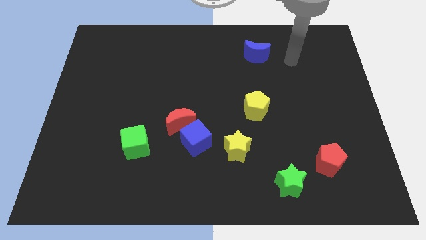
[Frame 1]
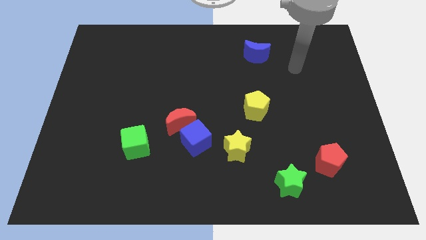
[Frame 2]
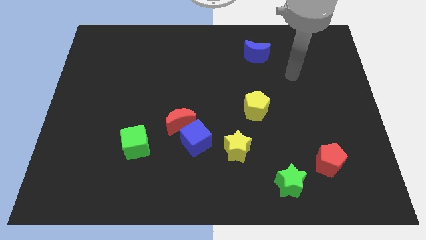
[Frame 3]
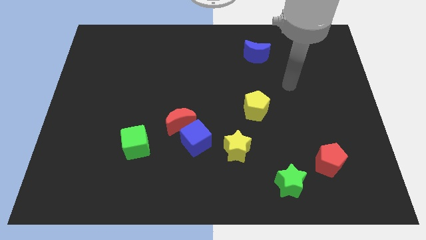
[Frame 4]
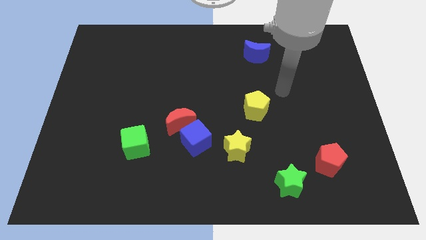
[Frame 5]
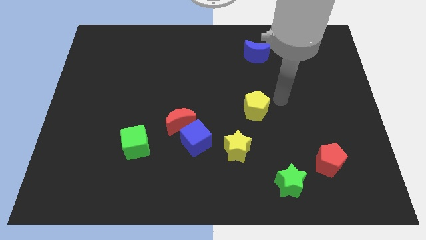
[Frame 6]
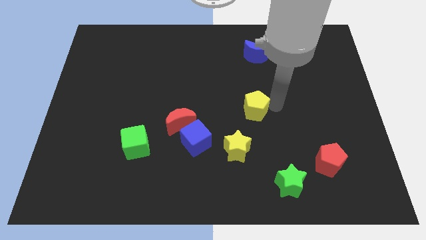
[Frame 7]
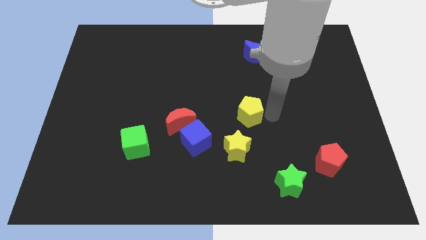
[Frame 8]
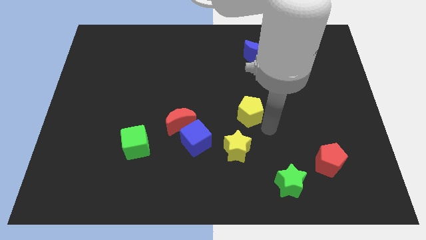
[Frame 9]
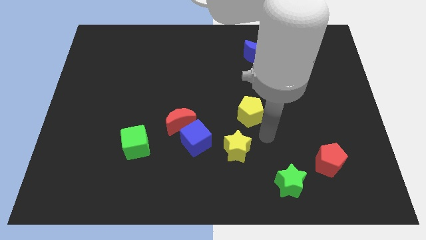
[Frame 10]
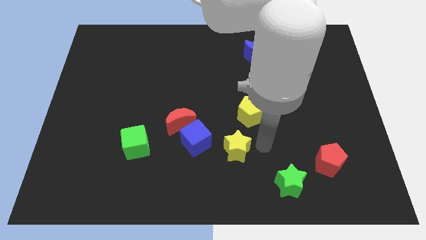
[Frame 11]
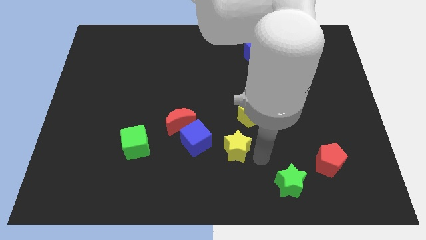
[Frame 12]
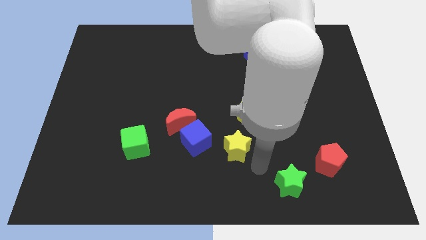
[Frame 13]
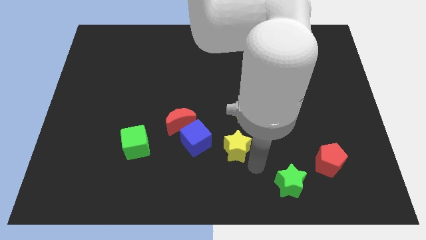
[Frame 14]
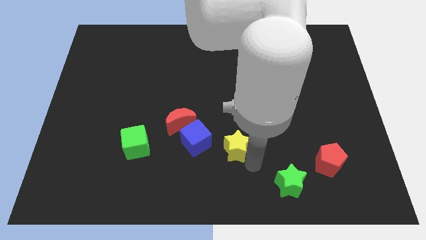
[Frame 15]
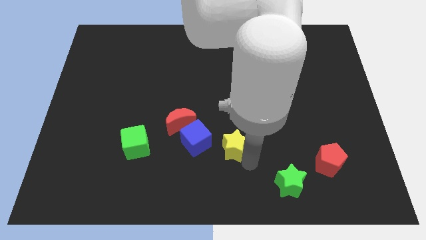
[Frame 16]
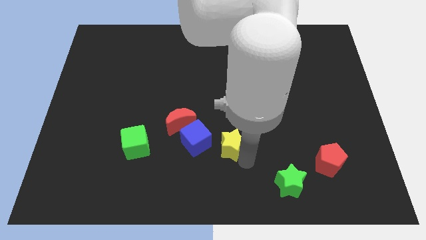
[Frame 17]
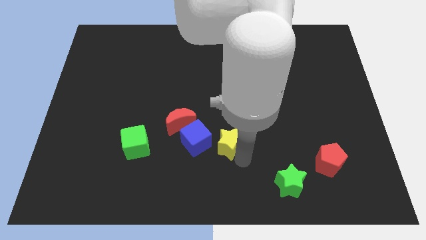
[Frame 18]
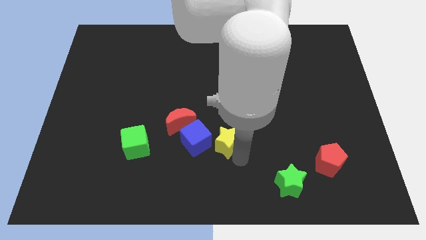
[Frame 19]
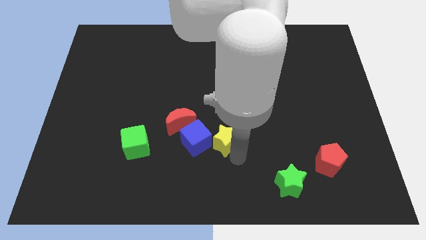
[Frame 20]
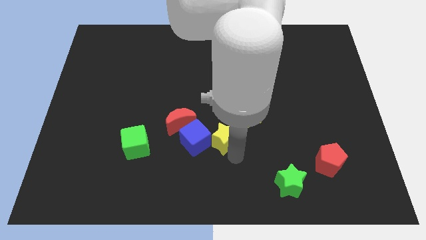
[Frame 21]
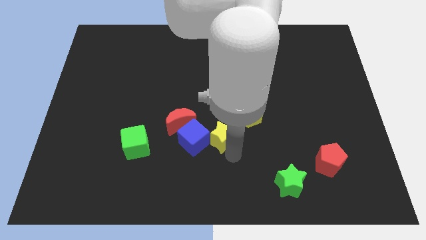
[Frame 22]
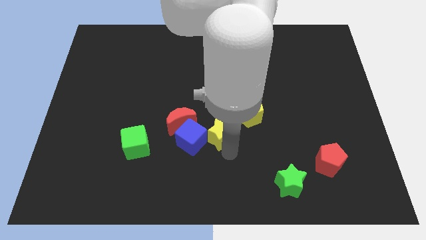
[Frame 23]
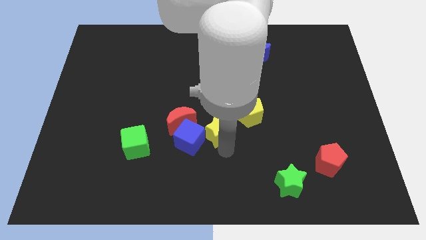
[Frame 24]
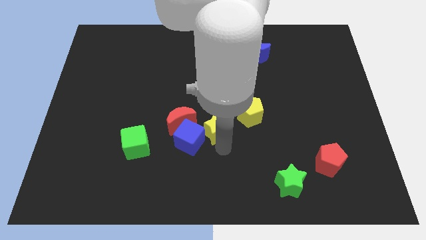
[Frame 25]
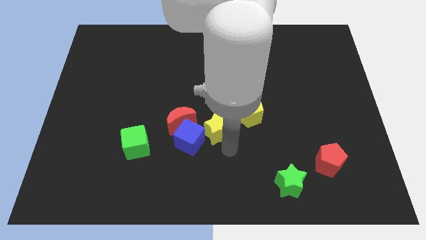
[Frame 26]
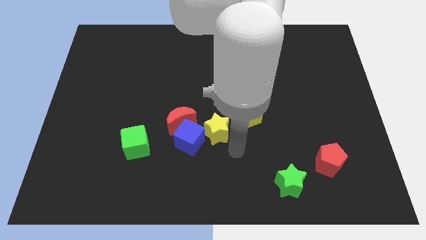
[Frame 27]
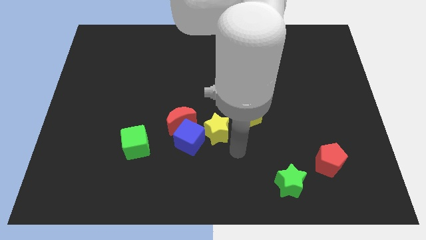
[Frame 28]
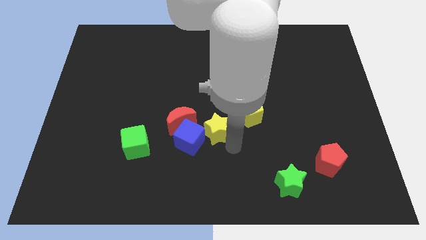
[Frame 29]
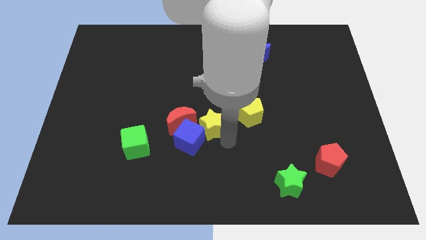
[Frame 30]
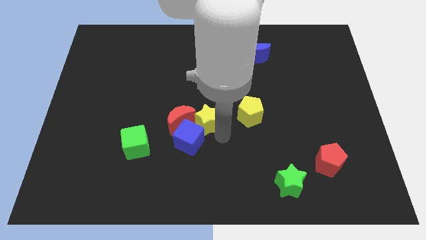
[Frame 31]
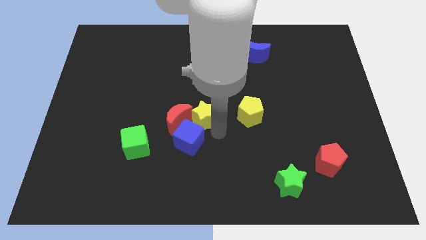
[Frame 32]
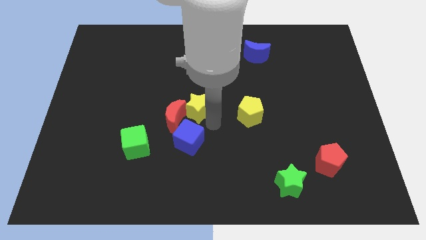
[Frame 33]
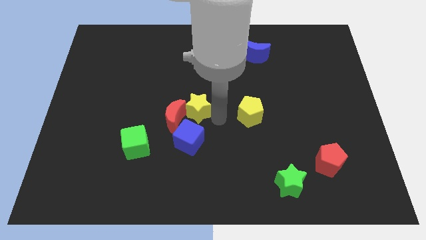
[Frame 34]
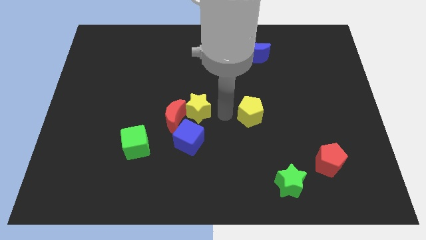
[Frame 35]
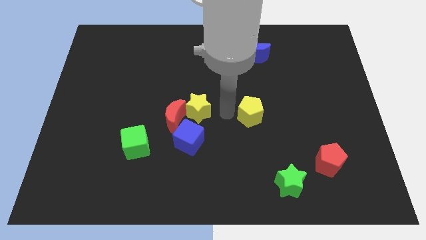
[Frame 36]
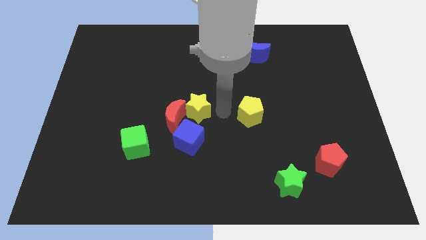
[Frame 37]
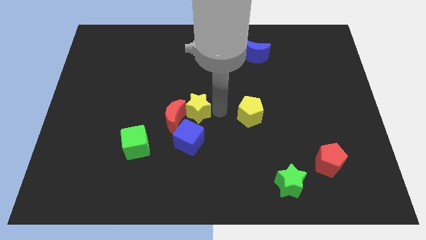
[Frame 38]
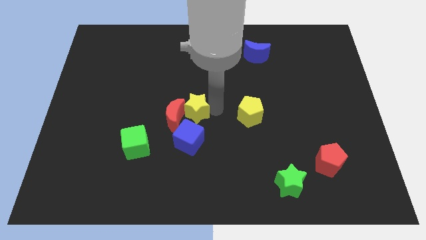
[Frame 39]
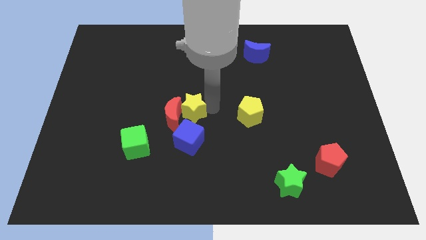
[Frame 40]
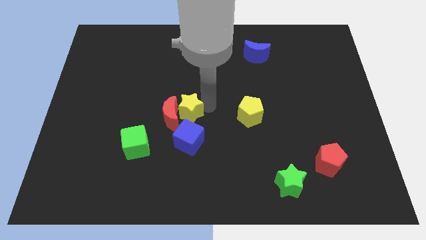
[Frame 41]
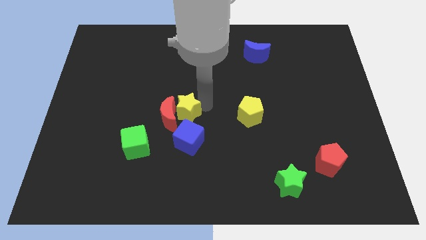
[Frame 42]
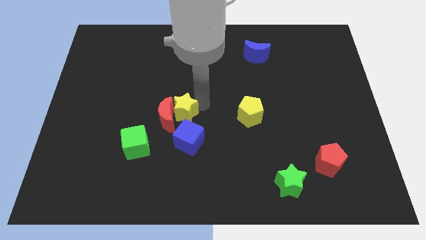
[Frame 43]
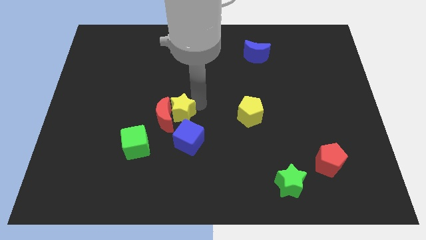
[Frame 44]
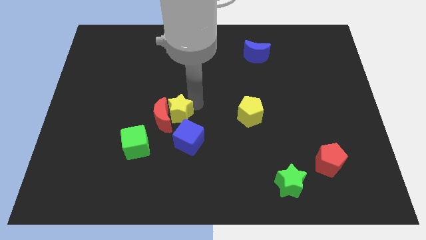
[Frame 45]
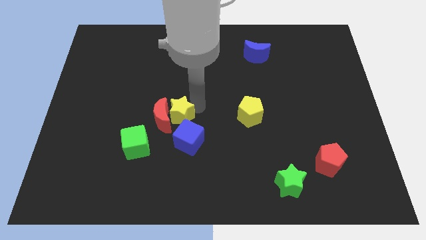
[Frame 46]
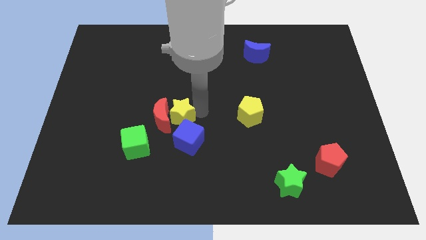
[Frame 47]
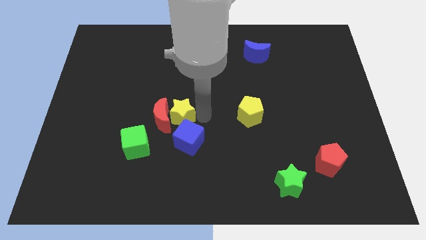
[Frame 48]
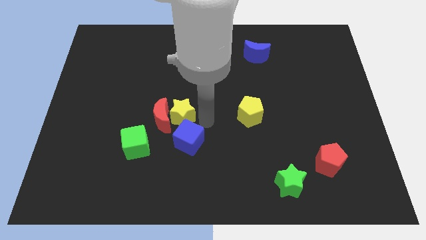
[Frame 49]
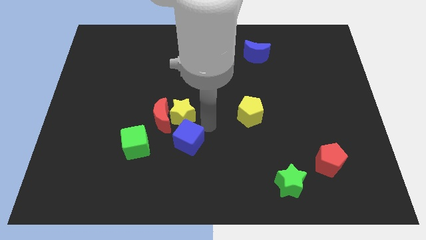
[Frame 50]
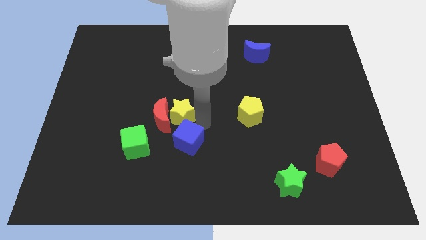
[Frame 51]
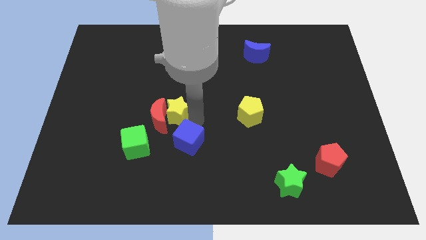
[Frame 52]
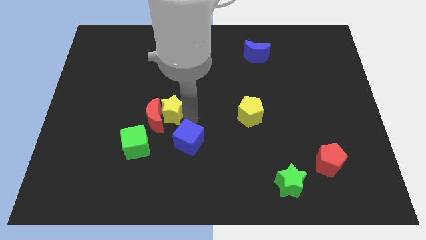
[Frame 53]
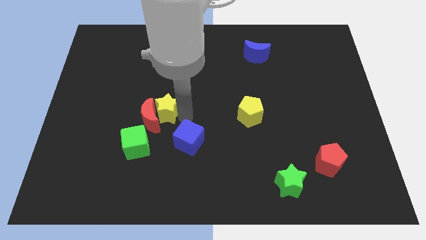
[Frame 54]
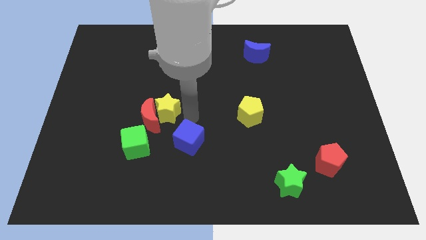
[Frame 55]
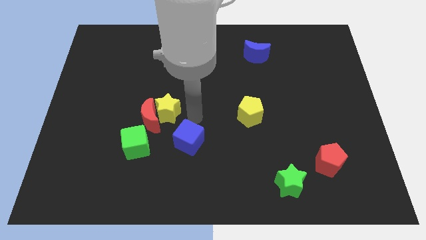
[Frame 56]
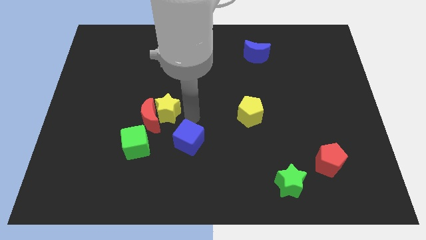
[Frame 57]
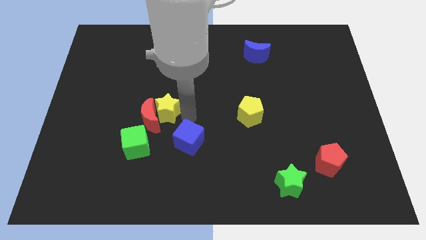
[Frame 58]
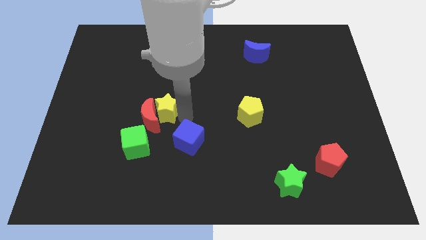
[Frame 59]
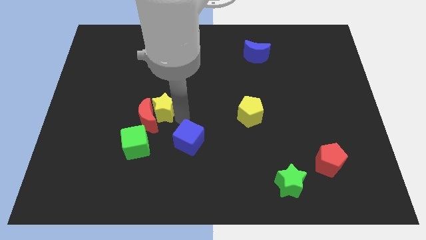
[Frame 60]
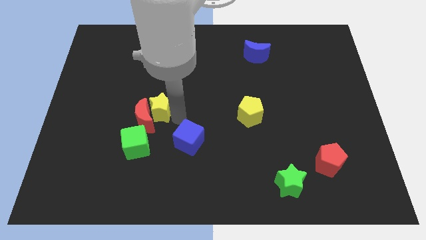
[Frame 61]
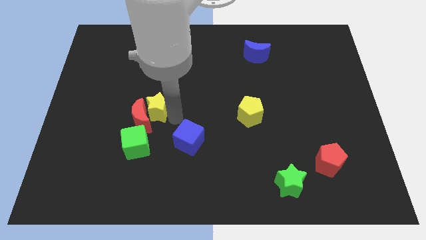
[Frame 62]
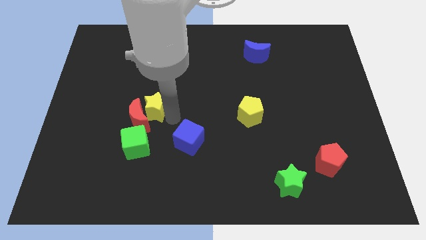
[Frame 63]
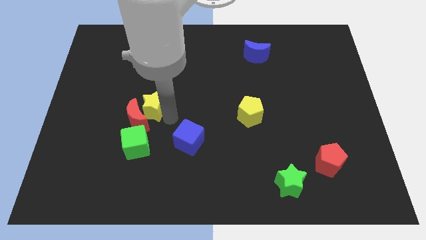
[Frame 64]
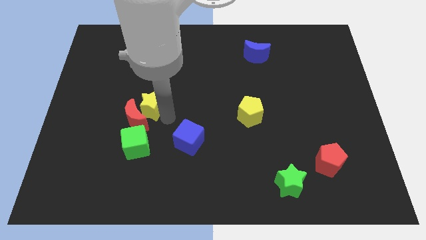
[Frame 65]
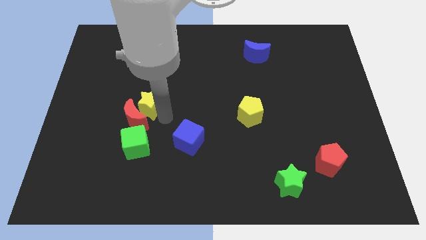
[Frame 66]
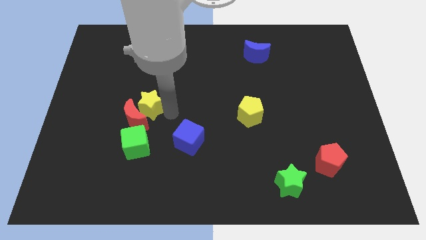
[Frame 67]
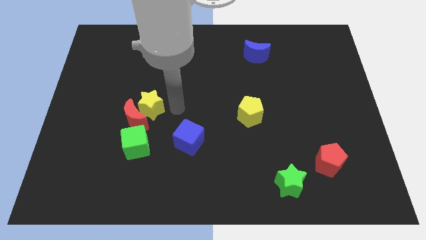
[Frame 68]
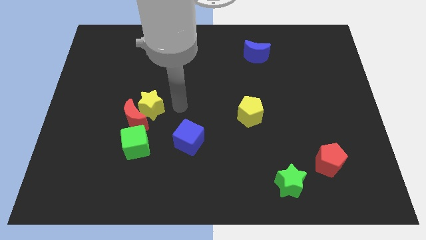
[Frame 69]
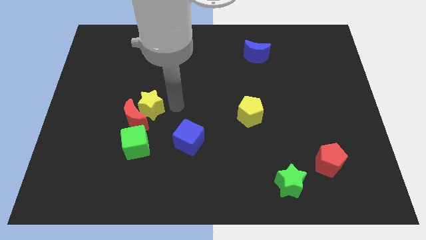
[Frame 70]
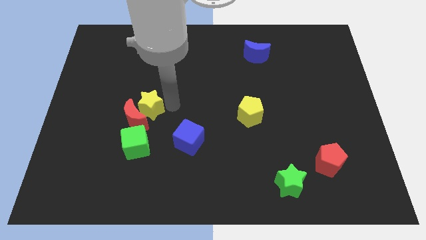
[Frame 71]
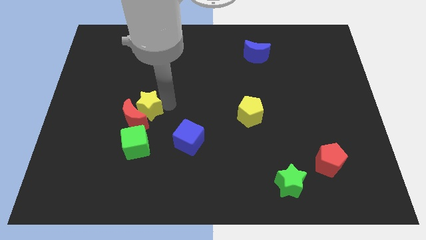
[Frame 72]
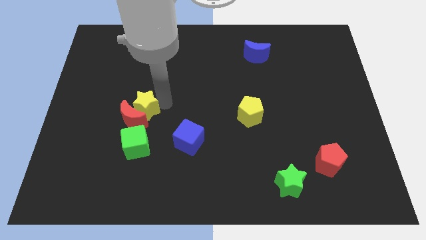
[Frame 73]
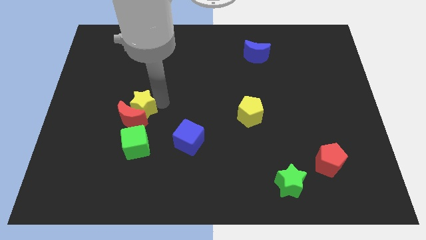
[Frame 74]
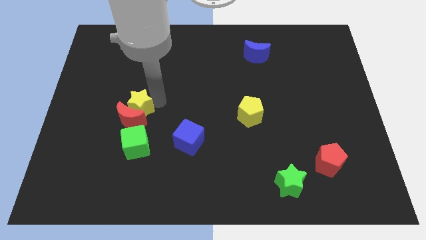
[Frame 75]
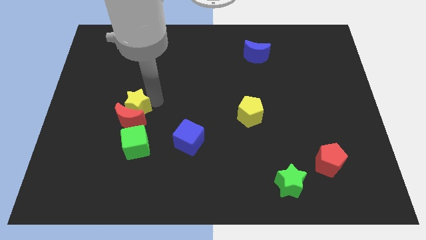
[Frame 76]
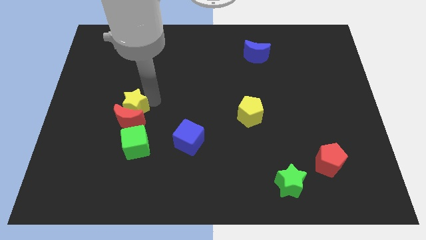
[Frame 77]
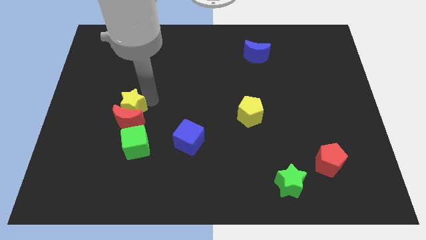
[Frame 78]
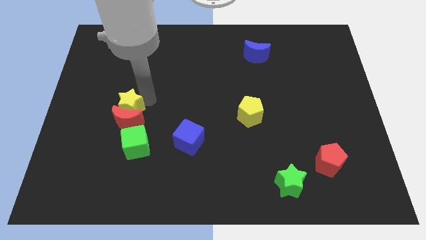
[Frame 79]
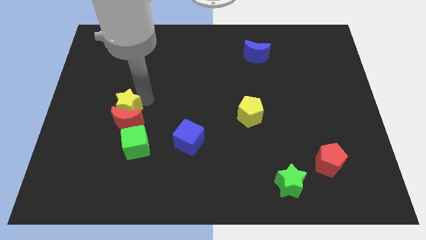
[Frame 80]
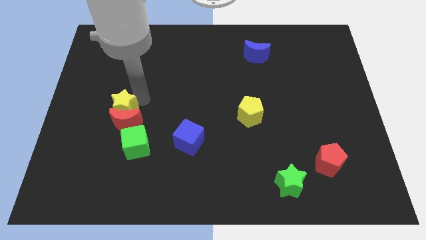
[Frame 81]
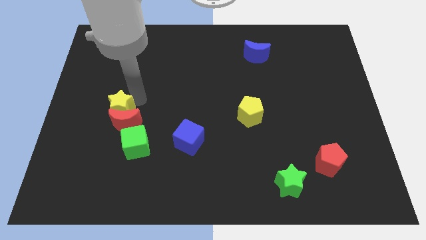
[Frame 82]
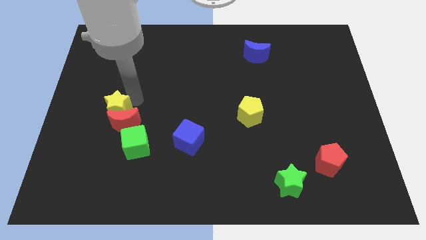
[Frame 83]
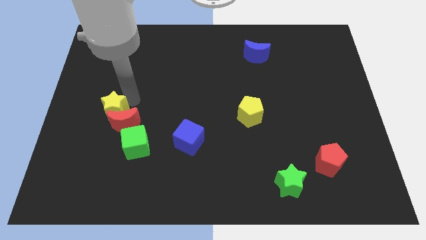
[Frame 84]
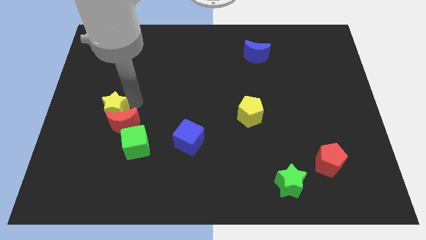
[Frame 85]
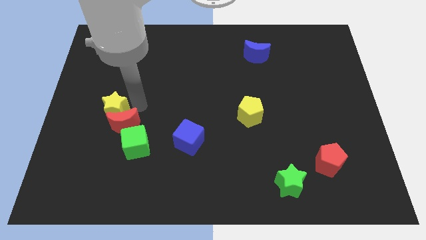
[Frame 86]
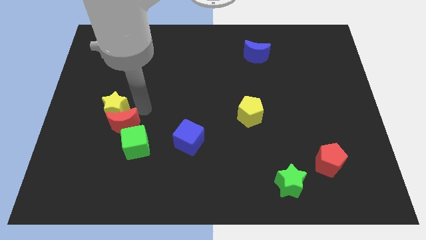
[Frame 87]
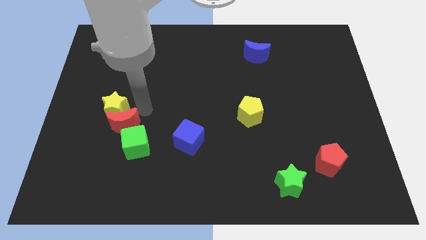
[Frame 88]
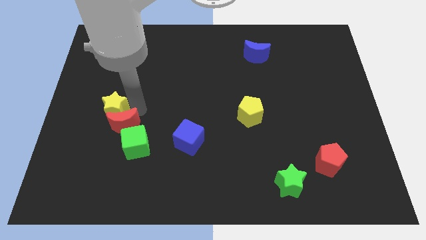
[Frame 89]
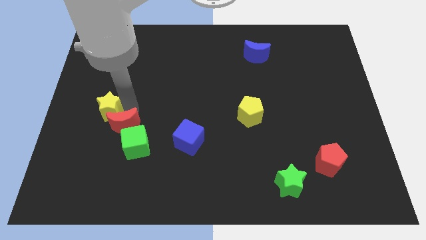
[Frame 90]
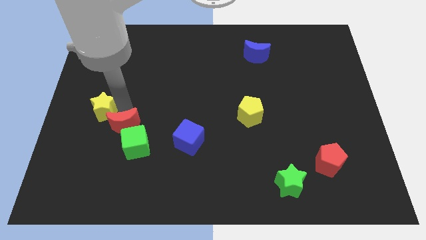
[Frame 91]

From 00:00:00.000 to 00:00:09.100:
slide the yellow star to the center left
